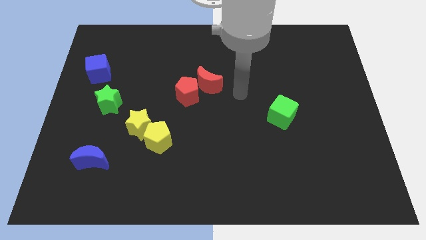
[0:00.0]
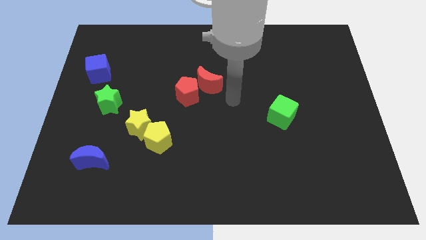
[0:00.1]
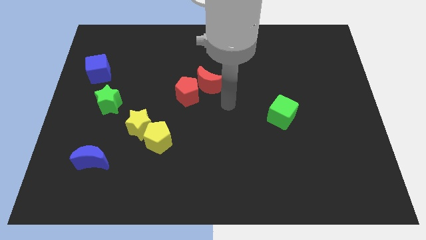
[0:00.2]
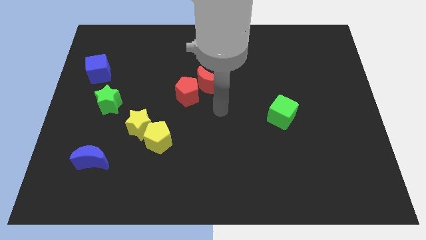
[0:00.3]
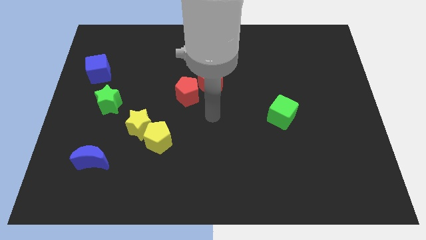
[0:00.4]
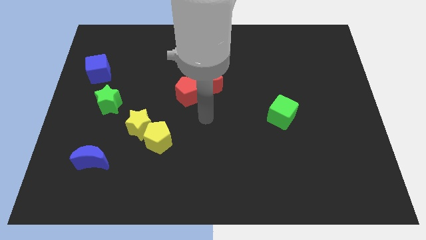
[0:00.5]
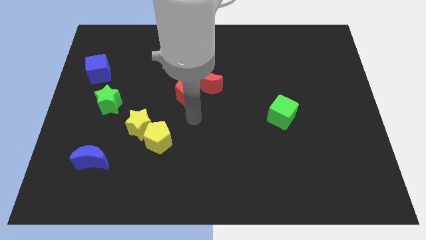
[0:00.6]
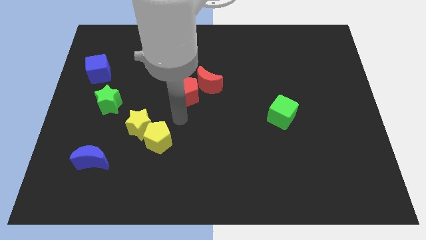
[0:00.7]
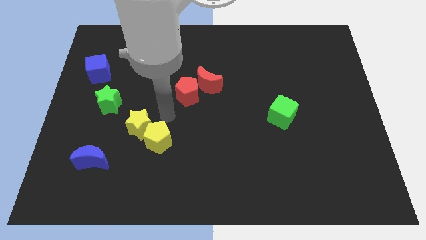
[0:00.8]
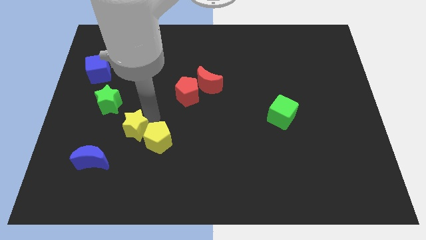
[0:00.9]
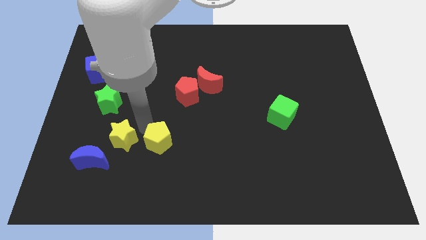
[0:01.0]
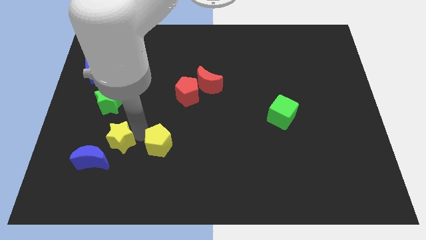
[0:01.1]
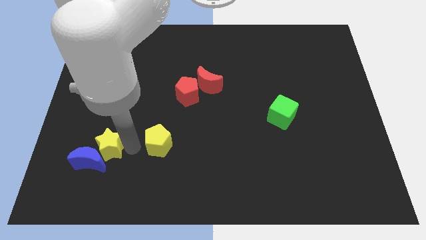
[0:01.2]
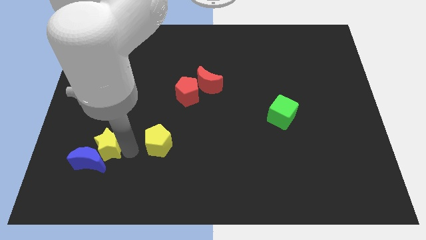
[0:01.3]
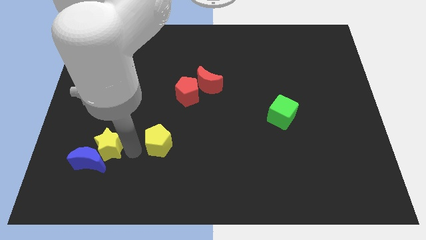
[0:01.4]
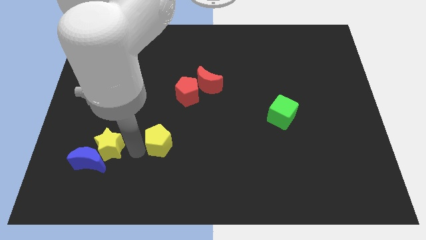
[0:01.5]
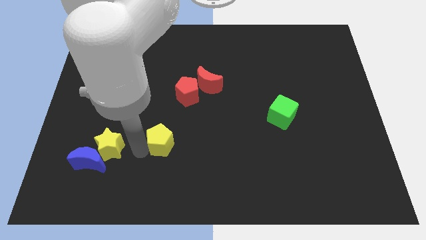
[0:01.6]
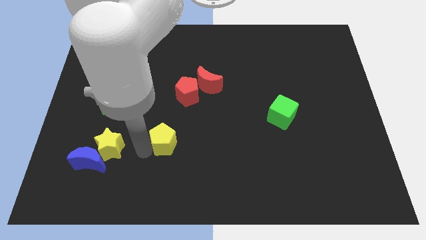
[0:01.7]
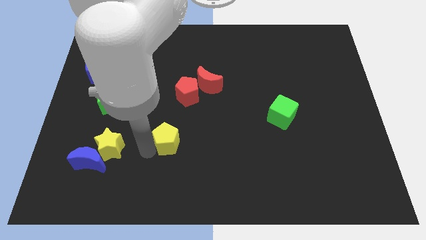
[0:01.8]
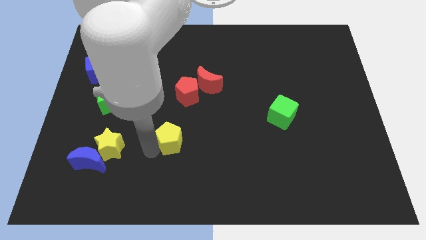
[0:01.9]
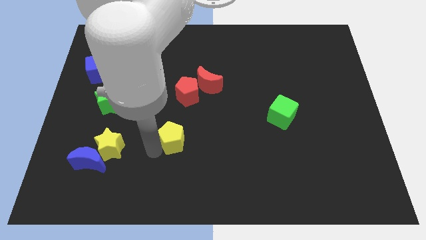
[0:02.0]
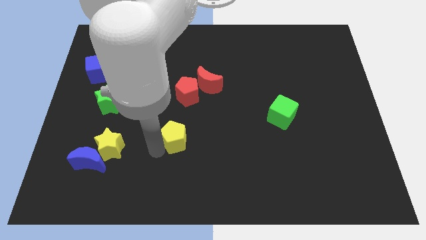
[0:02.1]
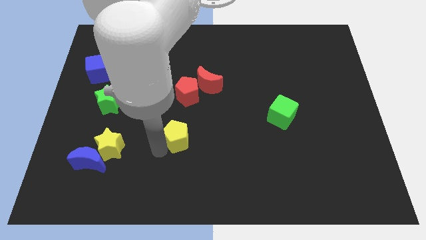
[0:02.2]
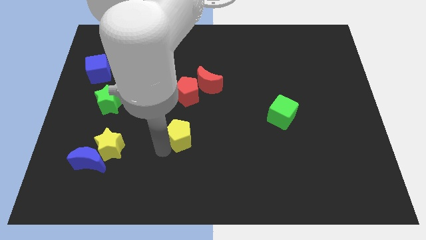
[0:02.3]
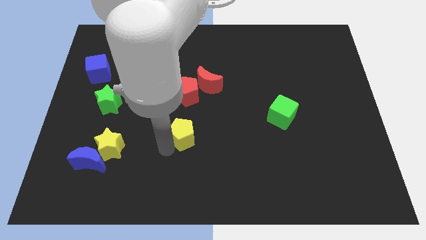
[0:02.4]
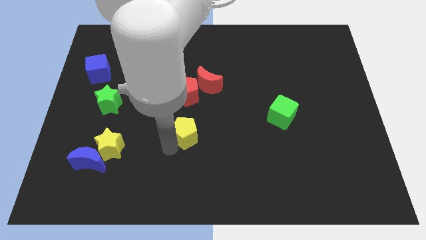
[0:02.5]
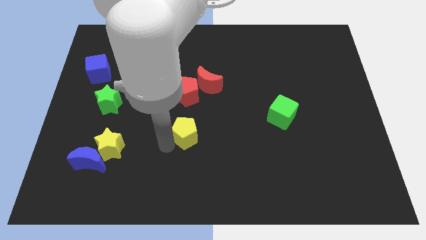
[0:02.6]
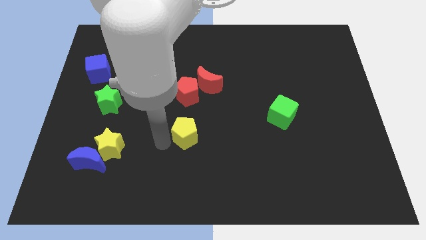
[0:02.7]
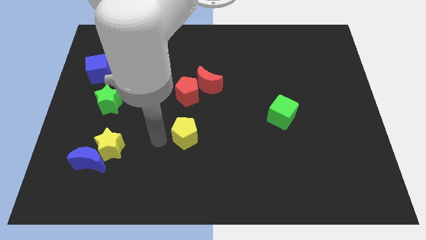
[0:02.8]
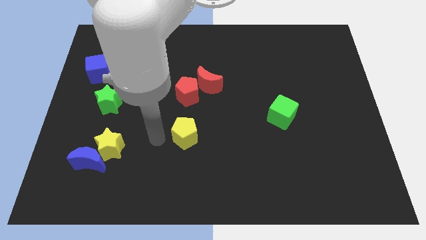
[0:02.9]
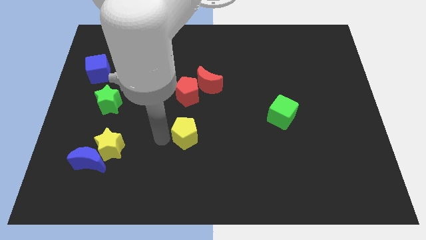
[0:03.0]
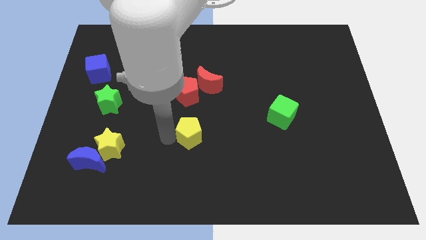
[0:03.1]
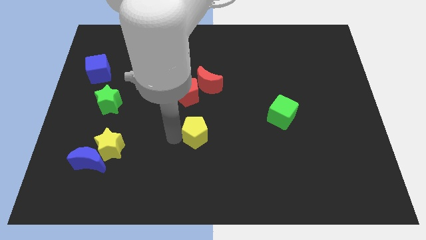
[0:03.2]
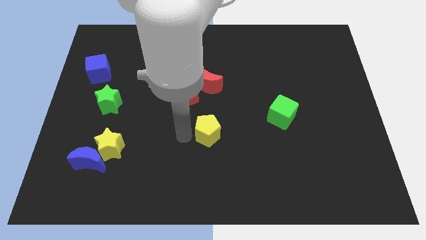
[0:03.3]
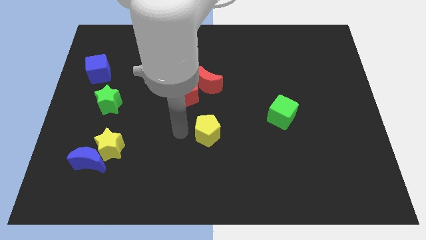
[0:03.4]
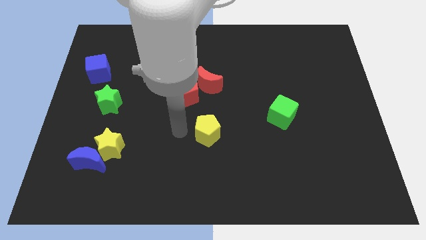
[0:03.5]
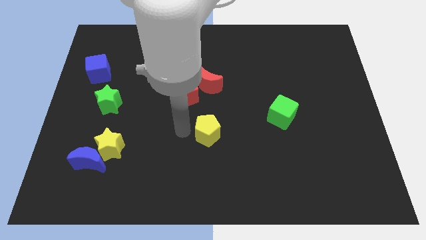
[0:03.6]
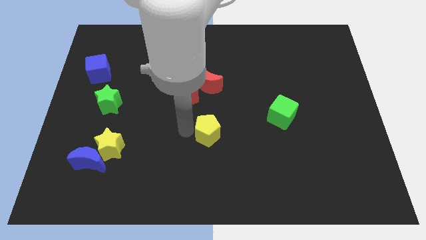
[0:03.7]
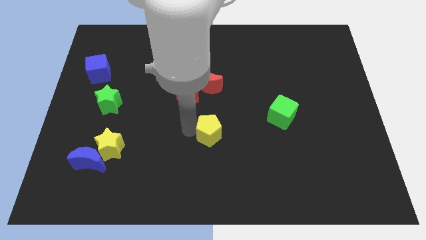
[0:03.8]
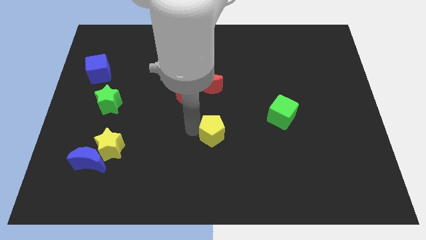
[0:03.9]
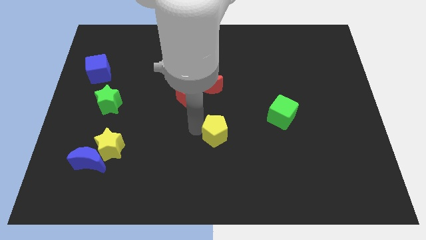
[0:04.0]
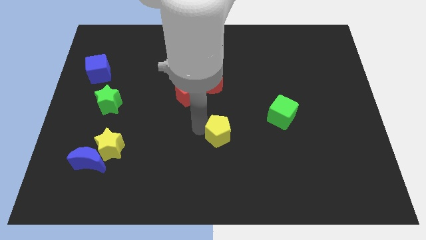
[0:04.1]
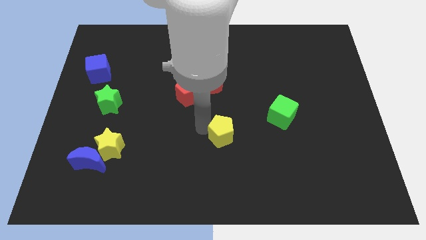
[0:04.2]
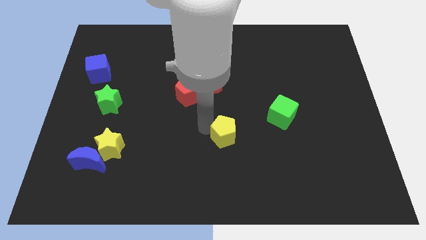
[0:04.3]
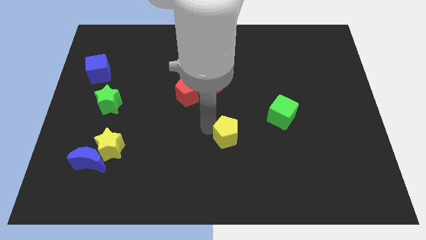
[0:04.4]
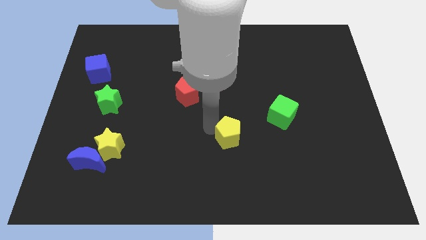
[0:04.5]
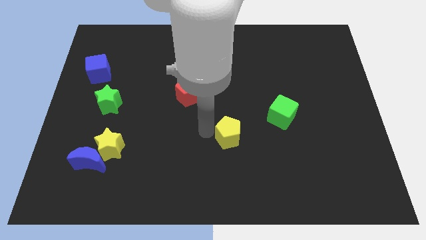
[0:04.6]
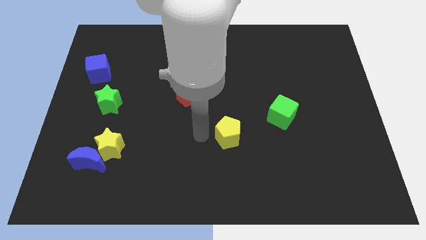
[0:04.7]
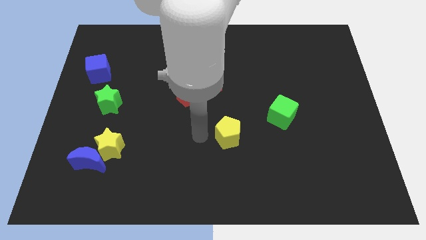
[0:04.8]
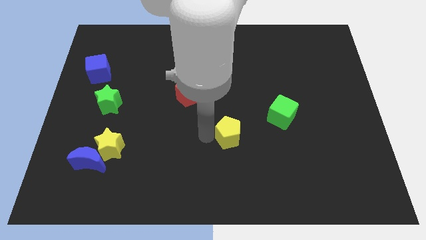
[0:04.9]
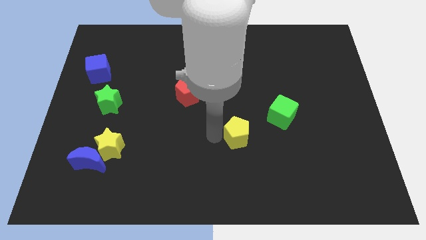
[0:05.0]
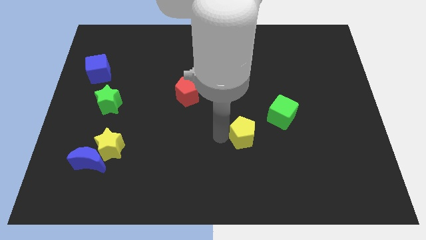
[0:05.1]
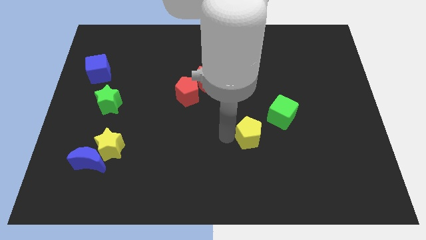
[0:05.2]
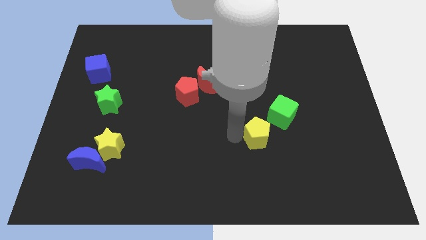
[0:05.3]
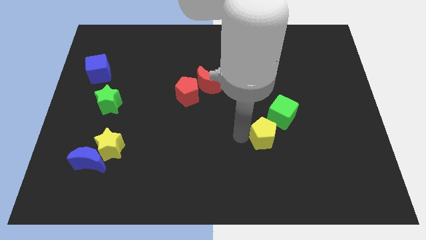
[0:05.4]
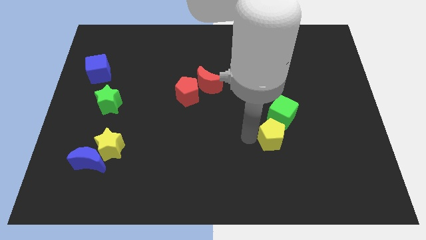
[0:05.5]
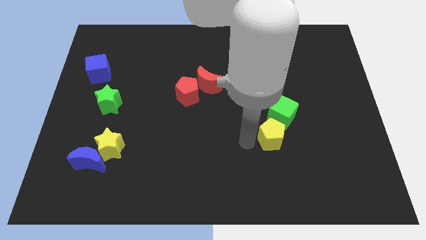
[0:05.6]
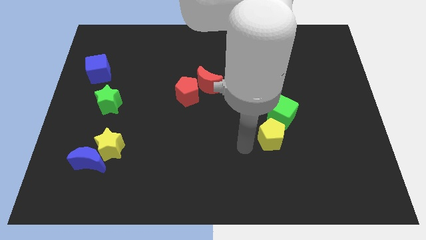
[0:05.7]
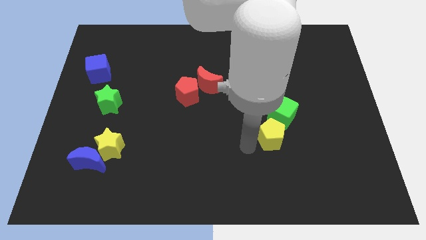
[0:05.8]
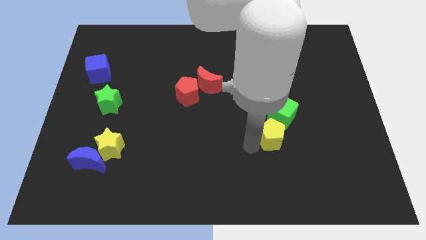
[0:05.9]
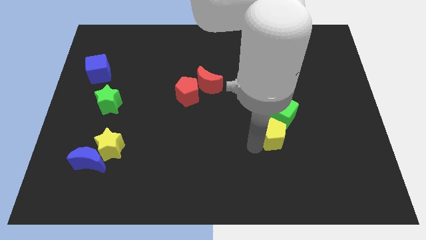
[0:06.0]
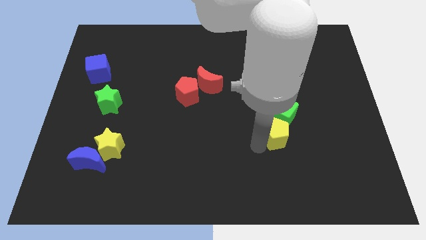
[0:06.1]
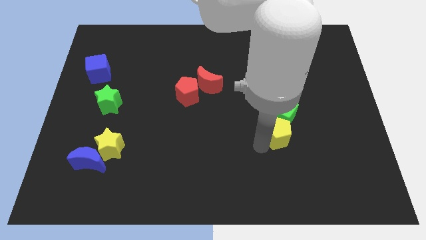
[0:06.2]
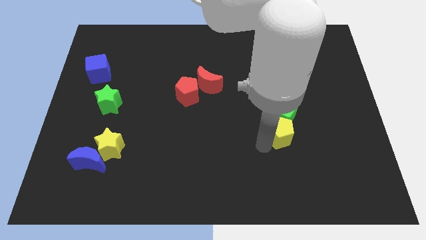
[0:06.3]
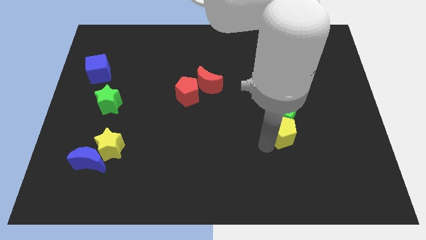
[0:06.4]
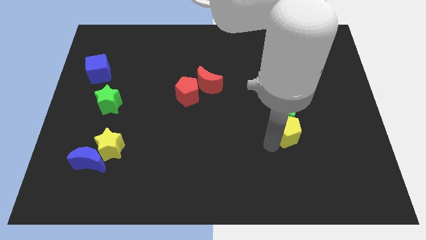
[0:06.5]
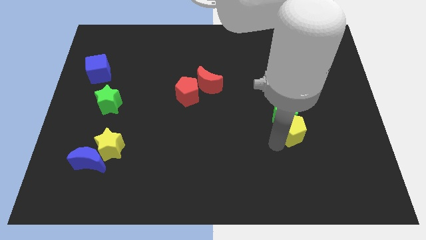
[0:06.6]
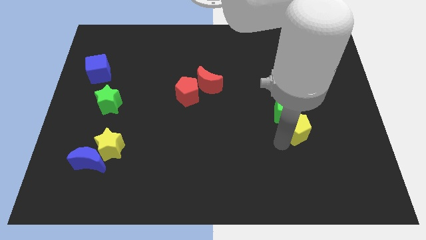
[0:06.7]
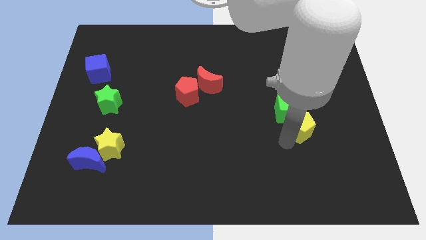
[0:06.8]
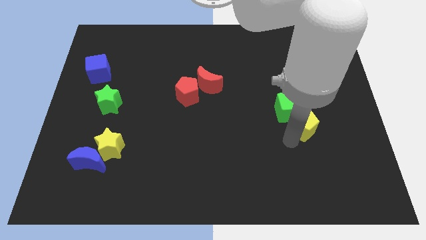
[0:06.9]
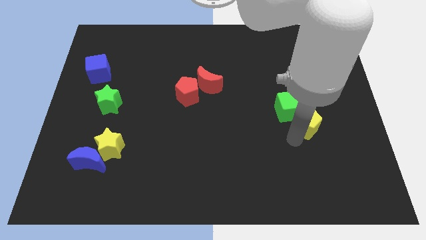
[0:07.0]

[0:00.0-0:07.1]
slide the yellow pentagon just right of the green cube
